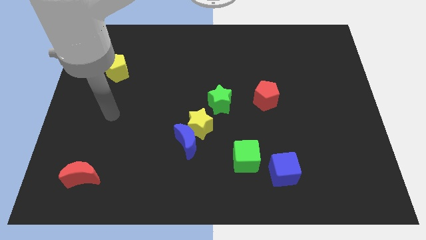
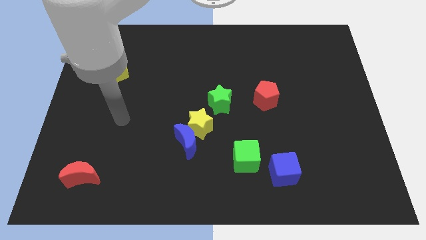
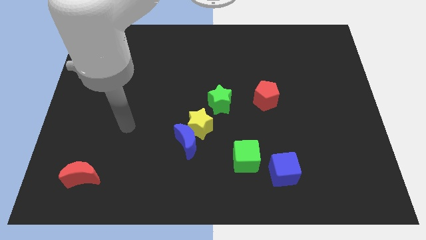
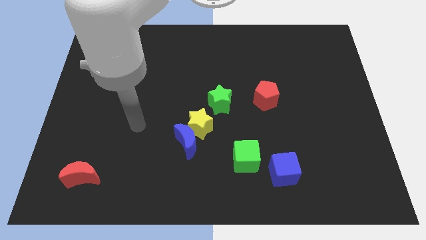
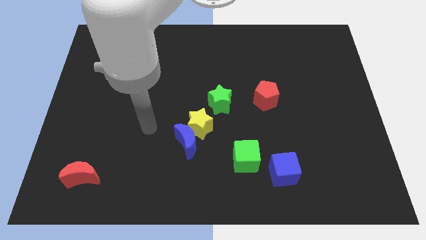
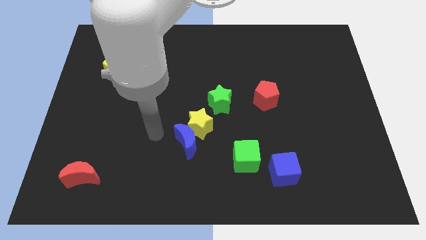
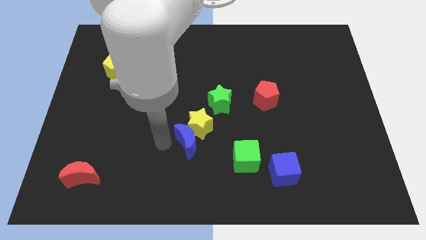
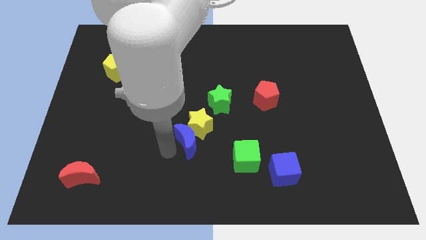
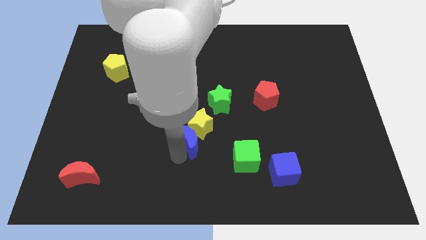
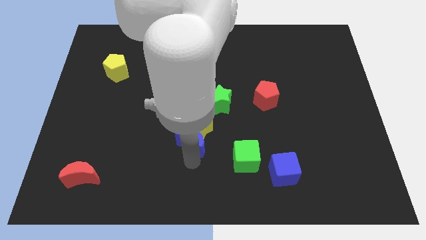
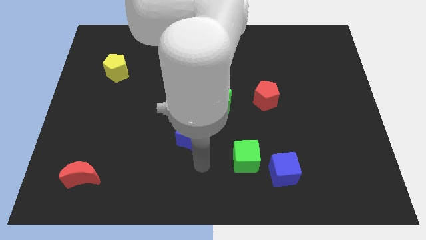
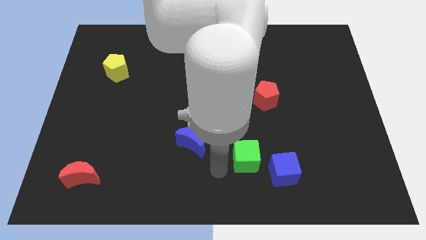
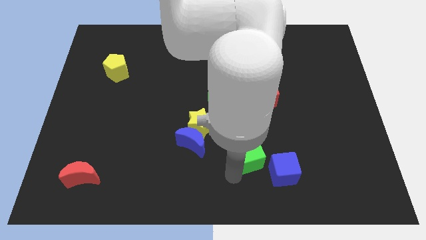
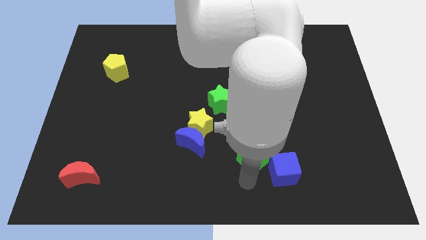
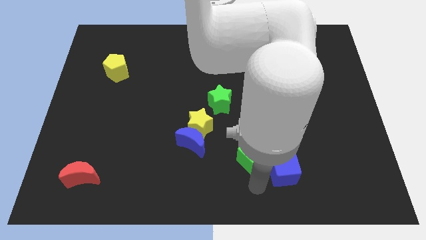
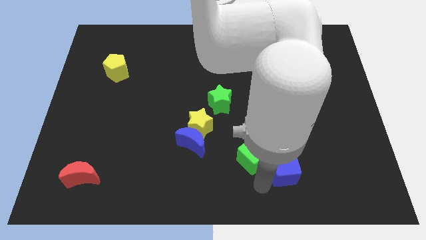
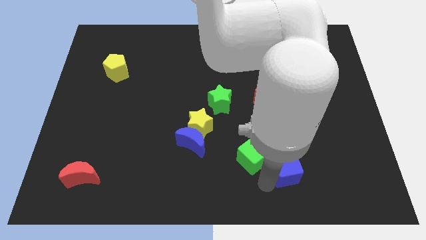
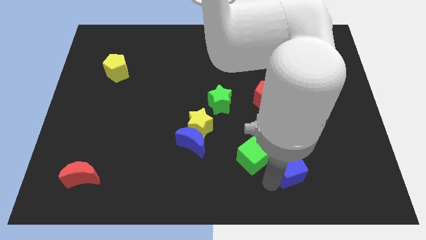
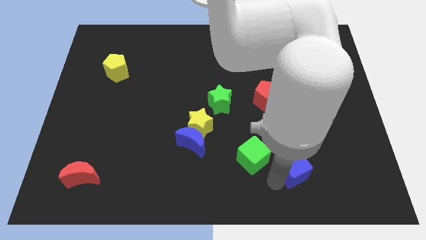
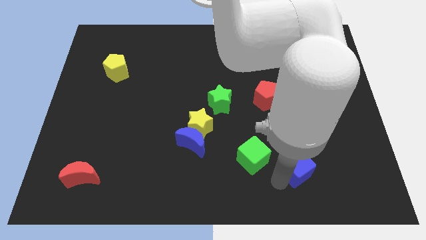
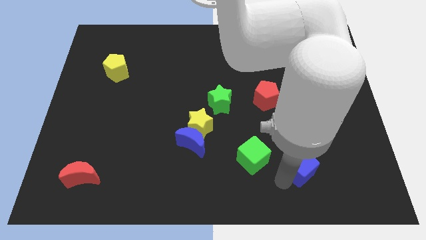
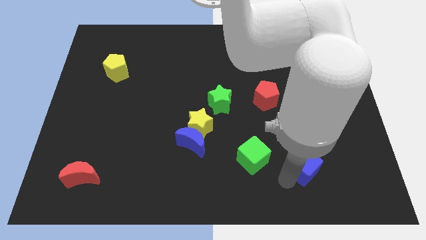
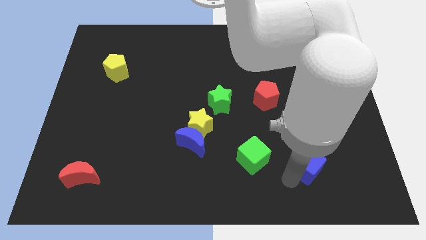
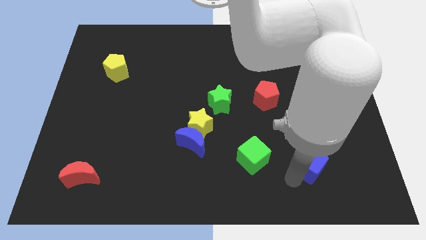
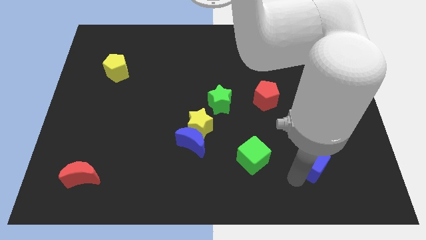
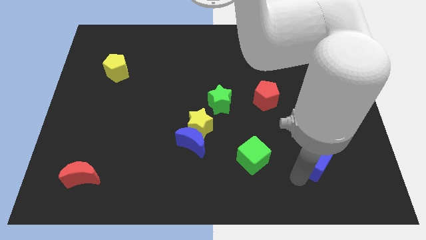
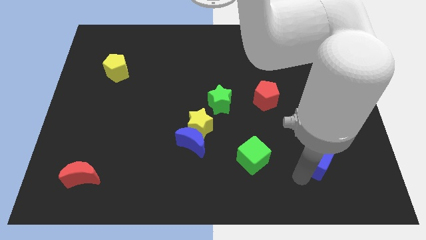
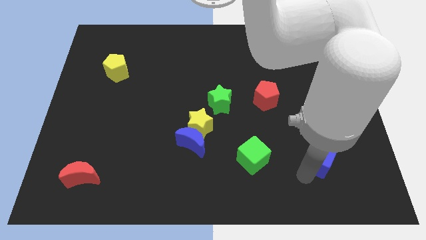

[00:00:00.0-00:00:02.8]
slide the blue cube a little bit upwards and then to the right

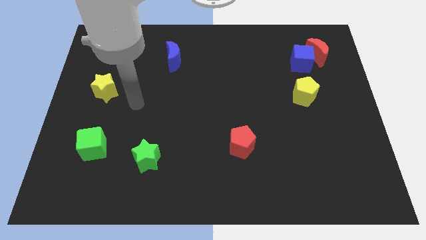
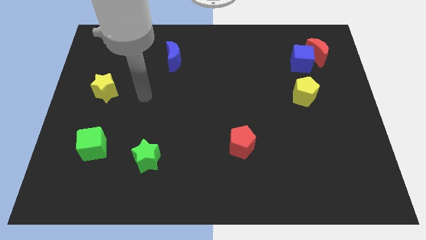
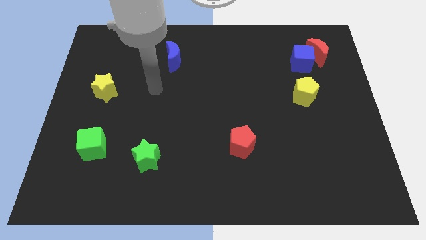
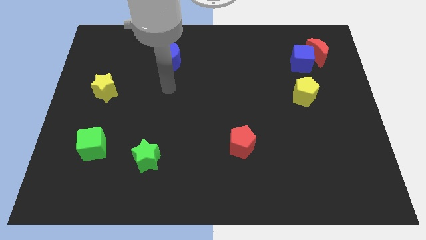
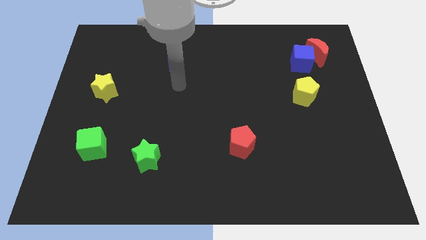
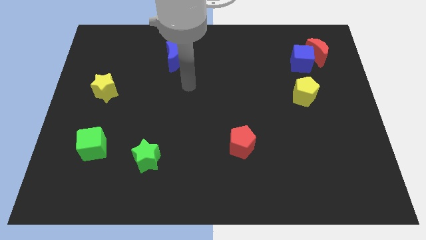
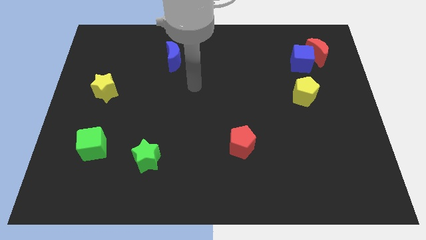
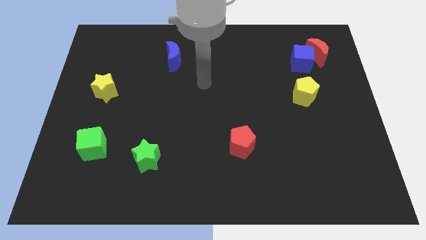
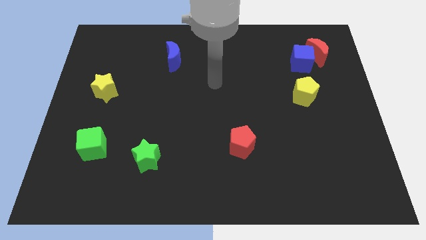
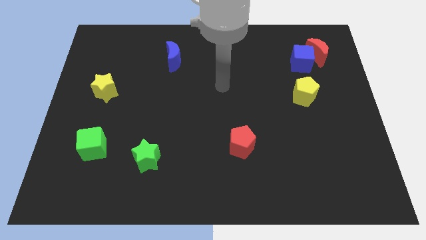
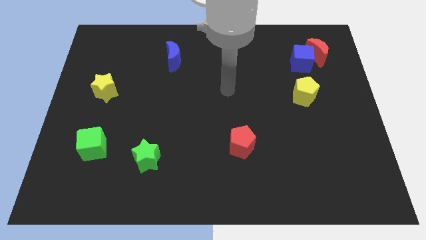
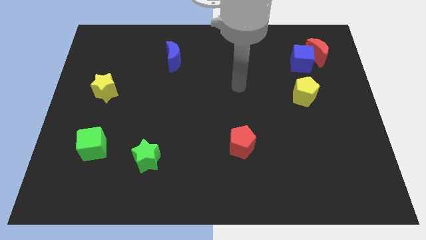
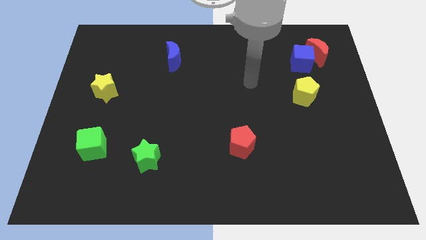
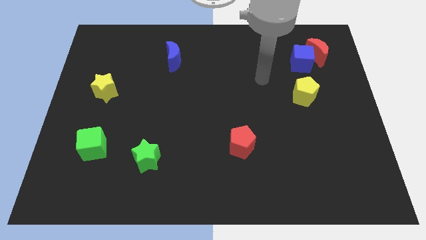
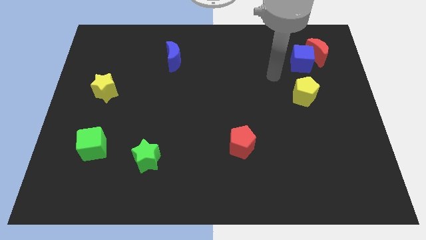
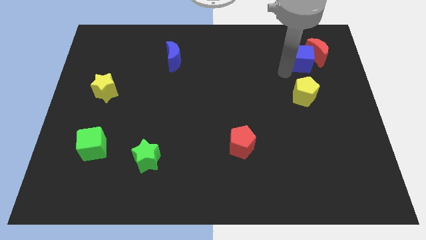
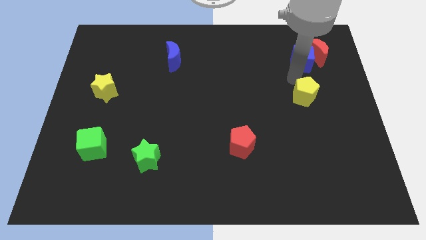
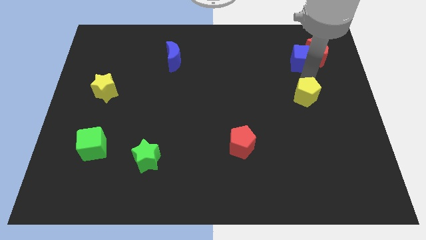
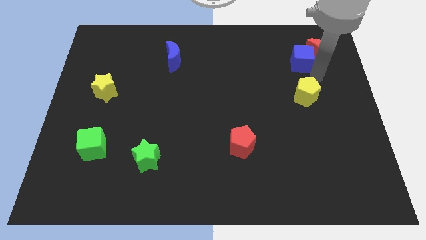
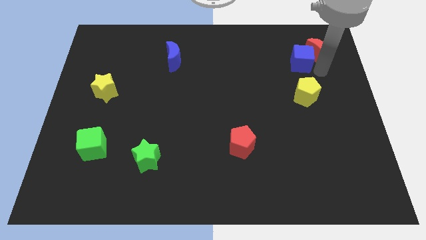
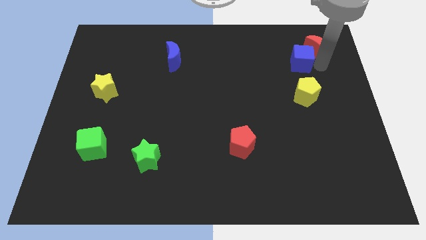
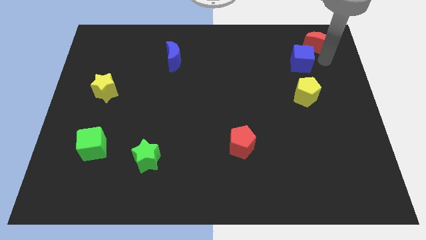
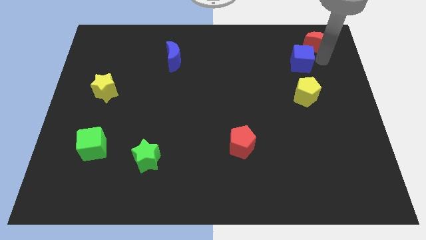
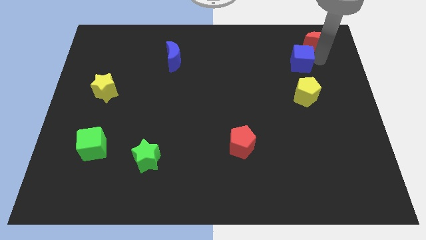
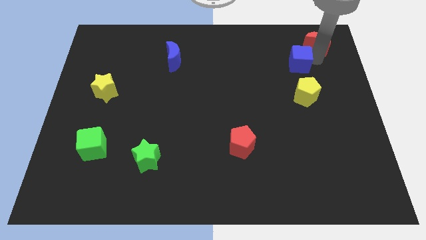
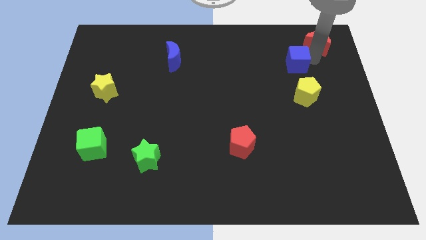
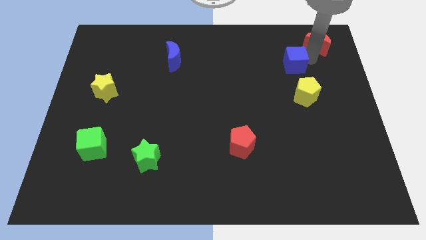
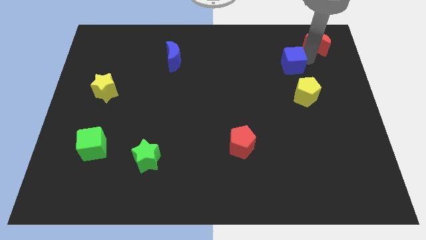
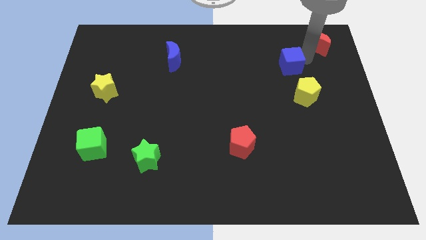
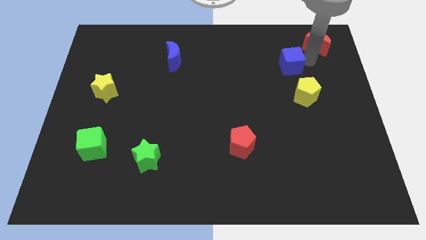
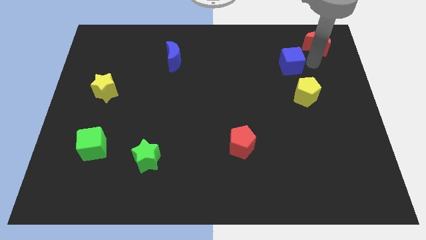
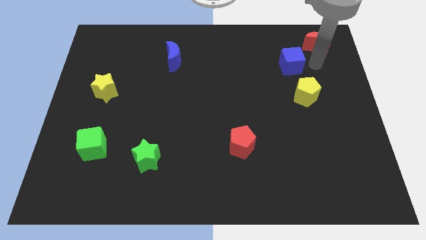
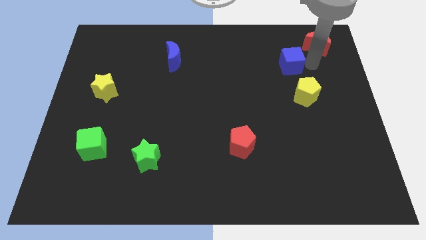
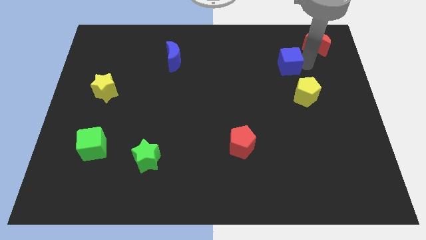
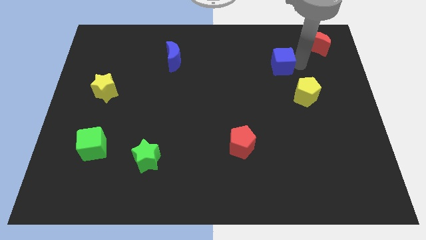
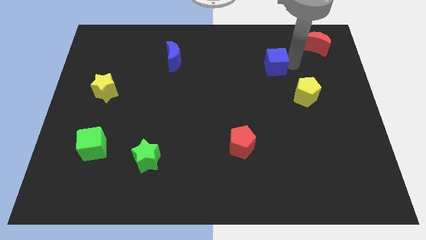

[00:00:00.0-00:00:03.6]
push the blue cube a little bit left

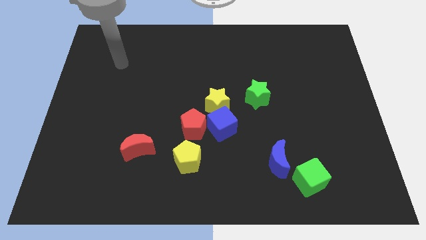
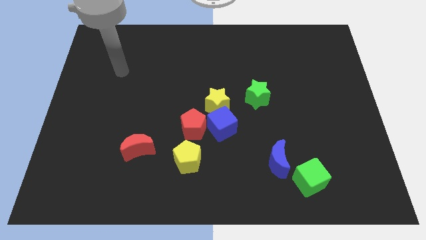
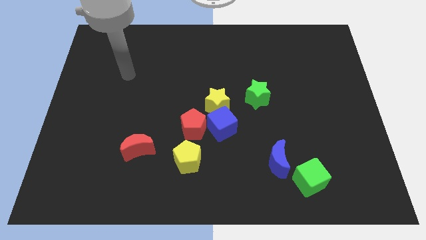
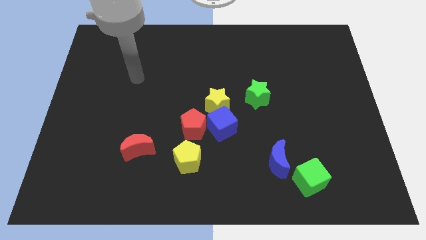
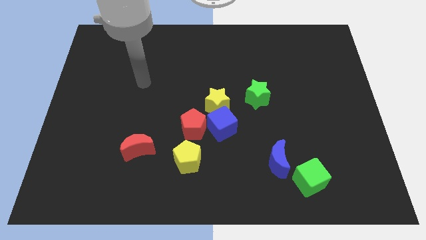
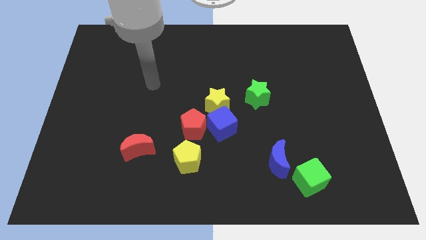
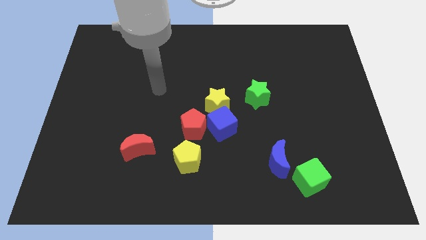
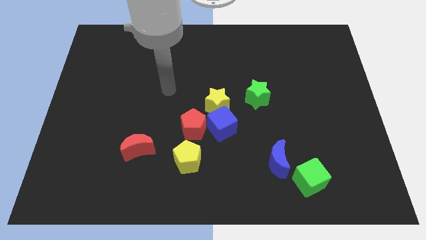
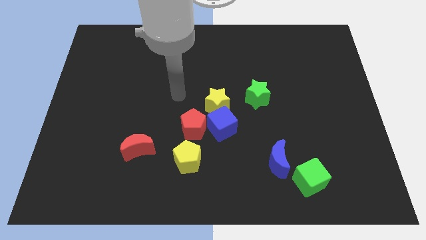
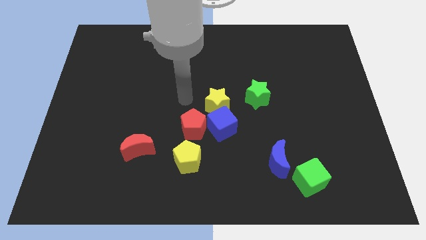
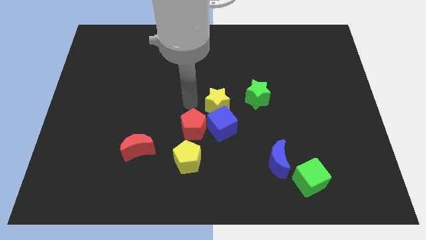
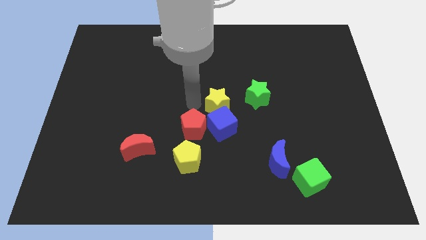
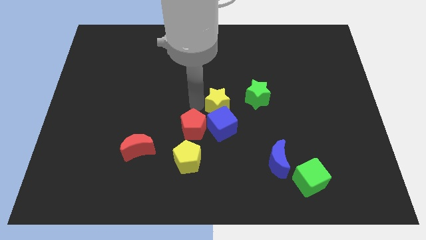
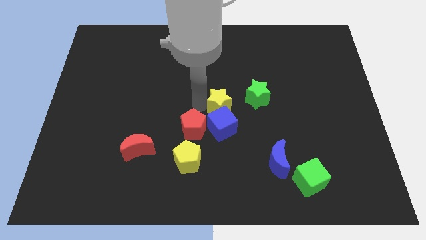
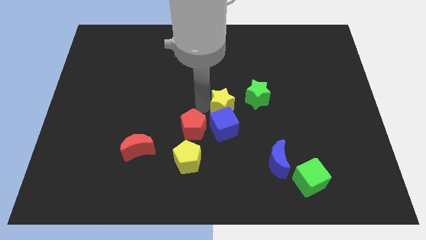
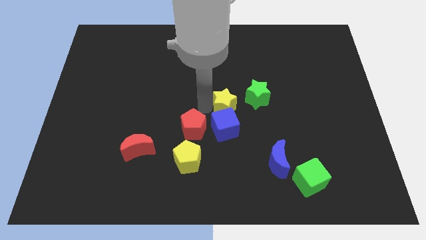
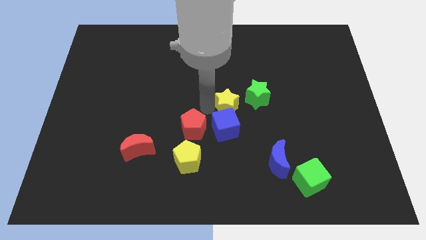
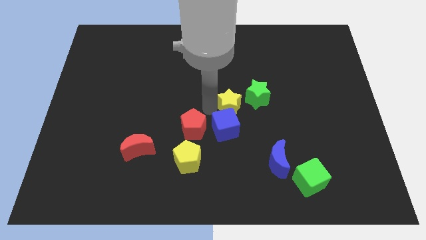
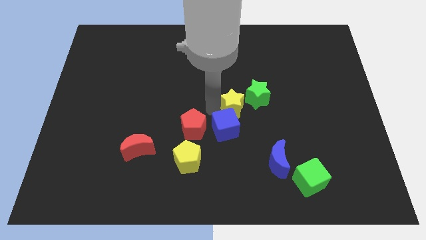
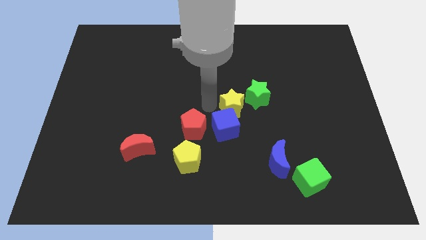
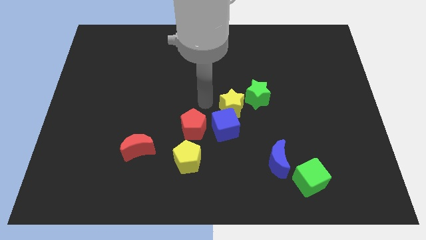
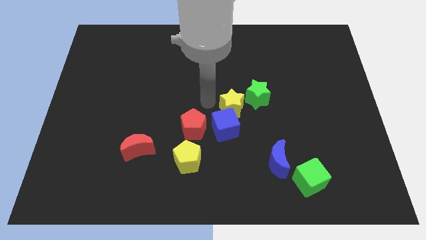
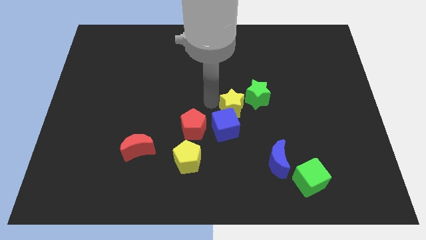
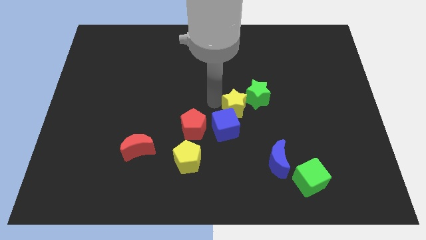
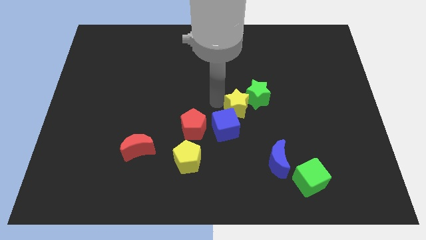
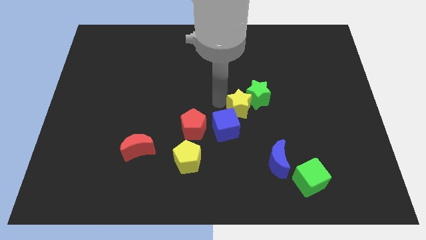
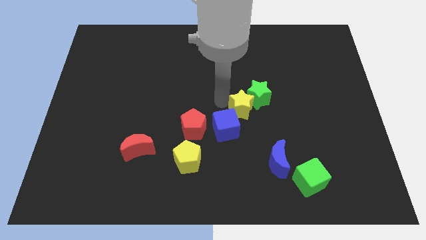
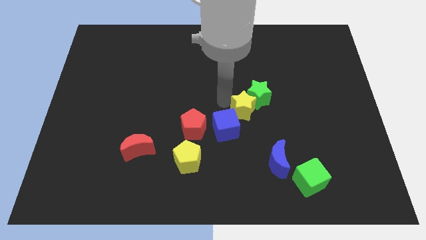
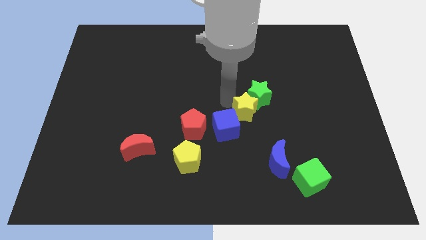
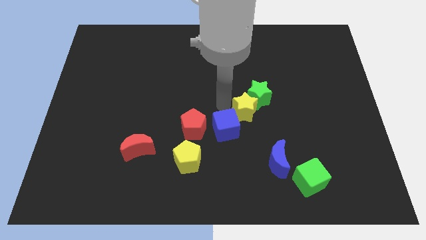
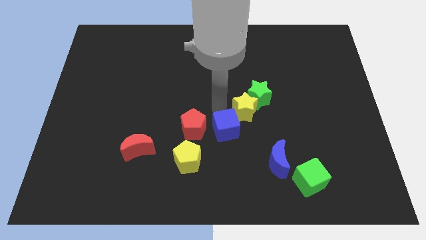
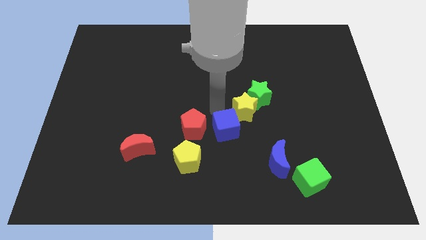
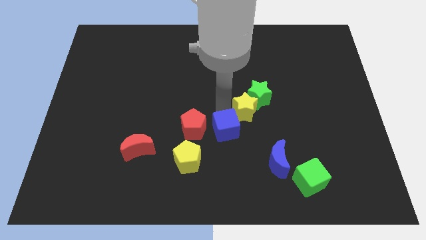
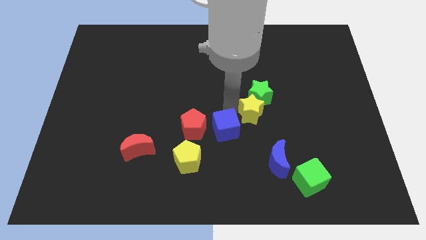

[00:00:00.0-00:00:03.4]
move the yellow star a bit to the right
